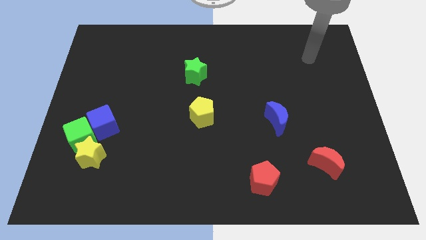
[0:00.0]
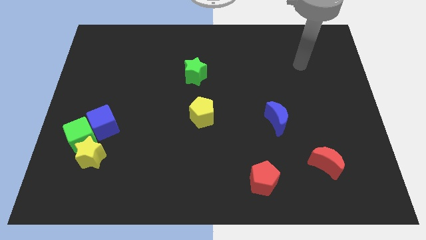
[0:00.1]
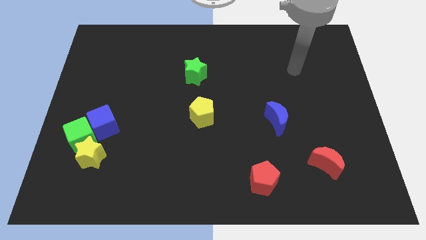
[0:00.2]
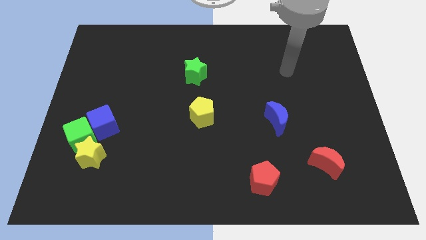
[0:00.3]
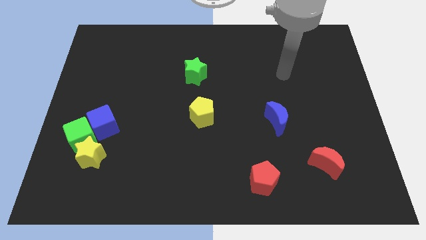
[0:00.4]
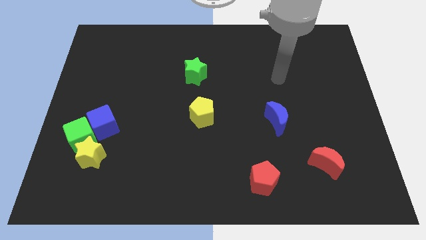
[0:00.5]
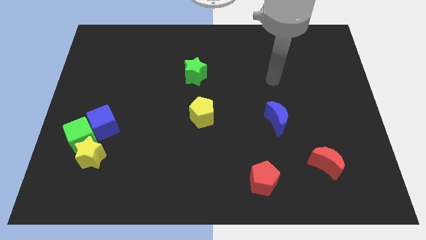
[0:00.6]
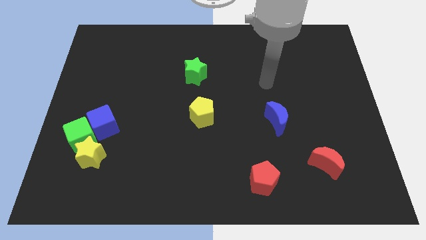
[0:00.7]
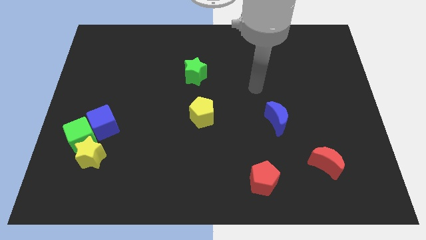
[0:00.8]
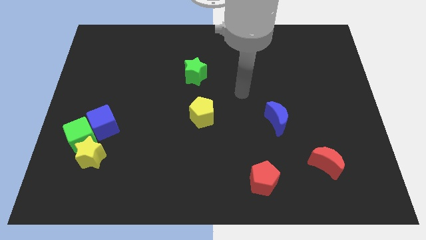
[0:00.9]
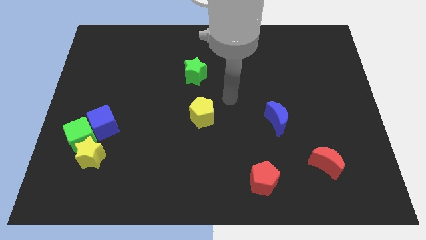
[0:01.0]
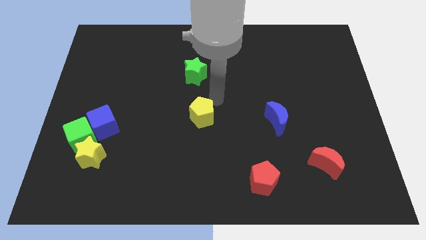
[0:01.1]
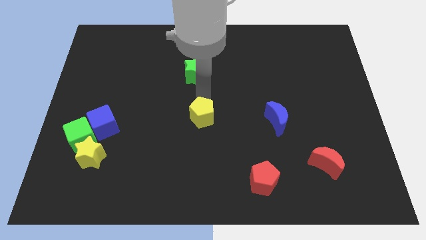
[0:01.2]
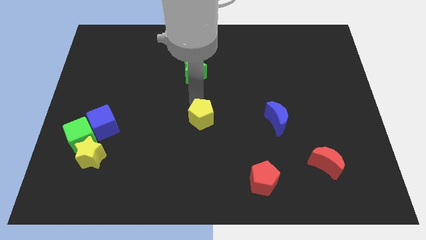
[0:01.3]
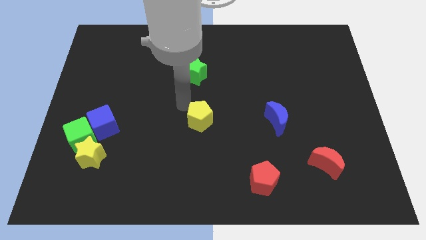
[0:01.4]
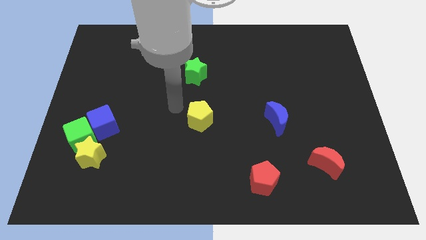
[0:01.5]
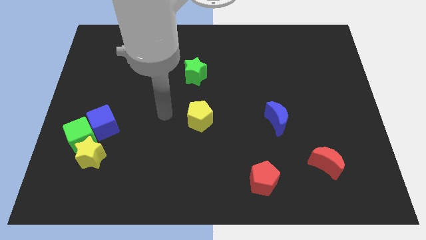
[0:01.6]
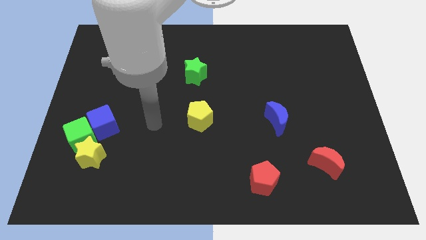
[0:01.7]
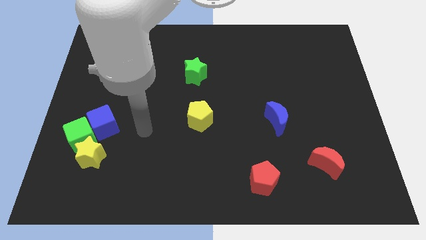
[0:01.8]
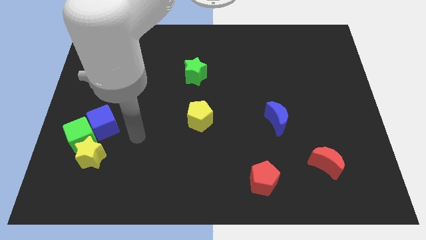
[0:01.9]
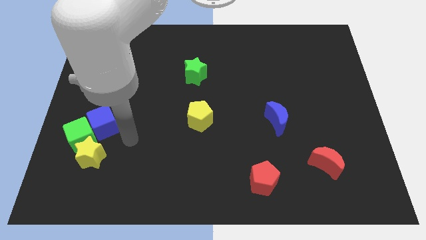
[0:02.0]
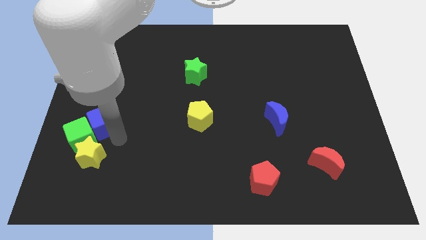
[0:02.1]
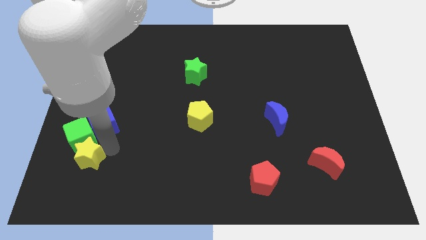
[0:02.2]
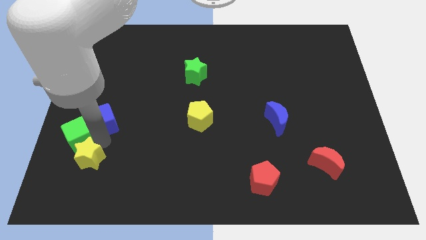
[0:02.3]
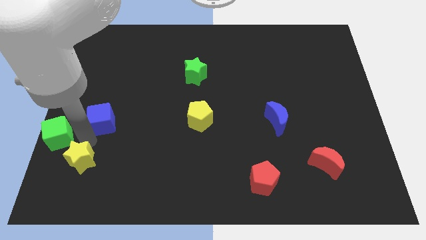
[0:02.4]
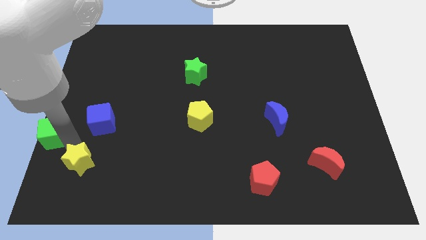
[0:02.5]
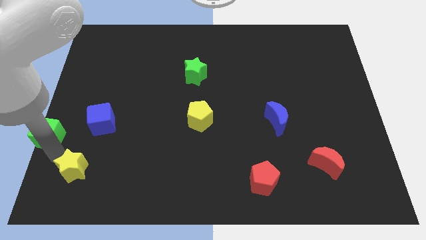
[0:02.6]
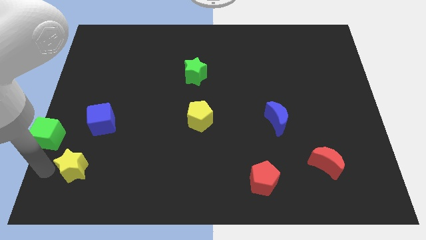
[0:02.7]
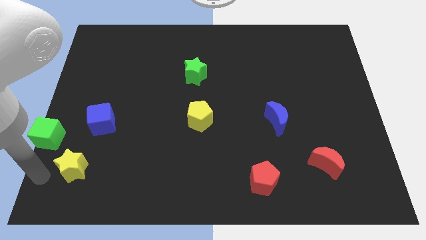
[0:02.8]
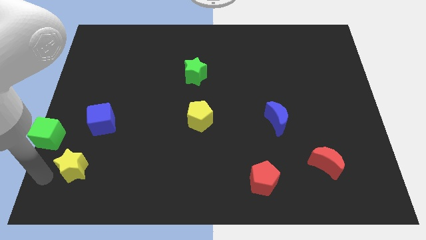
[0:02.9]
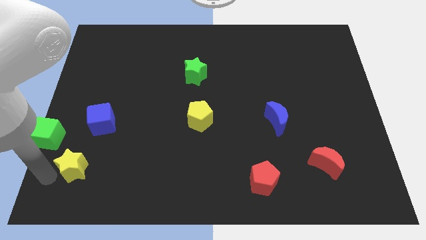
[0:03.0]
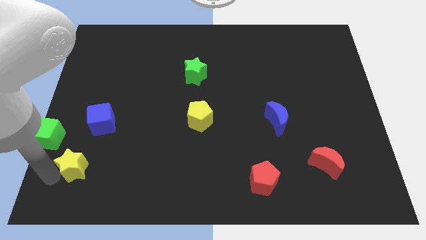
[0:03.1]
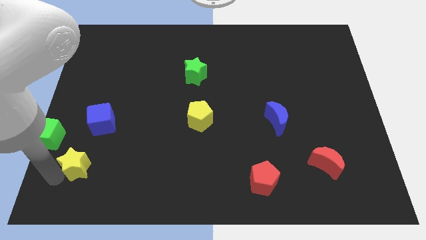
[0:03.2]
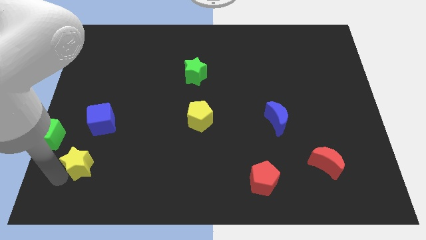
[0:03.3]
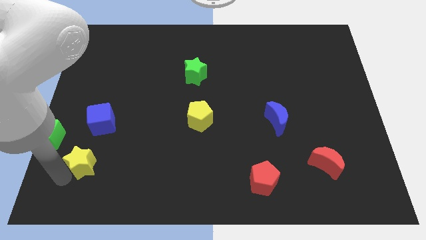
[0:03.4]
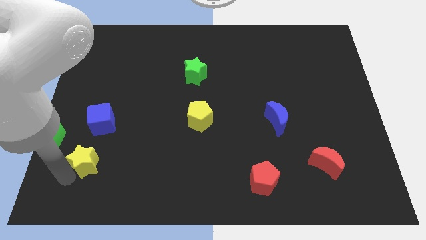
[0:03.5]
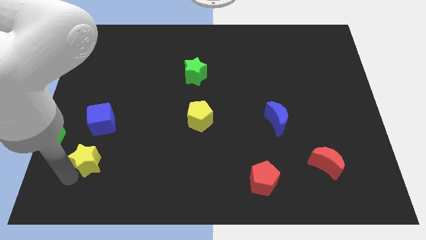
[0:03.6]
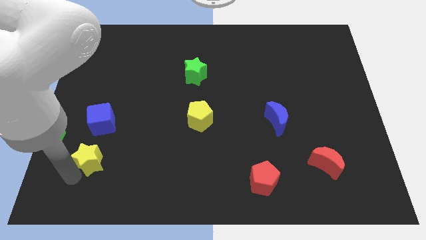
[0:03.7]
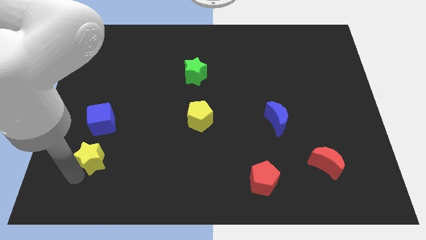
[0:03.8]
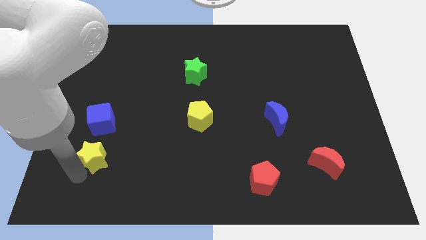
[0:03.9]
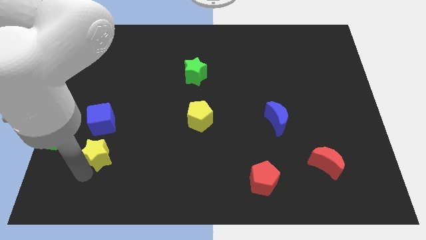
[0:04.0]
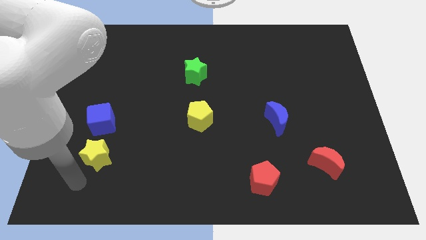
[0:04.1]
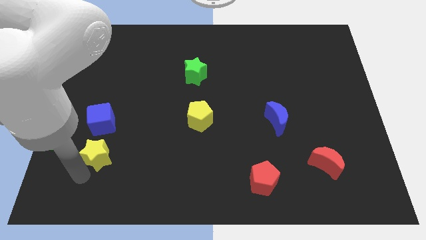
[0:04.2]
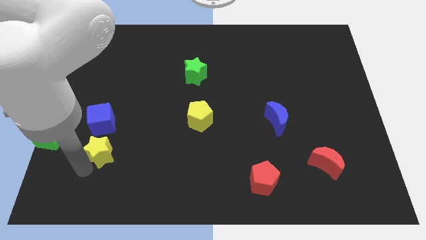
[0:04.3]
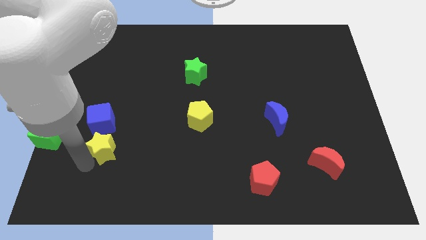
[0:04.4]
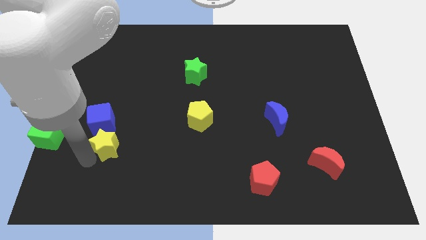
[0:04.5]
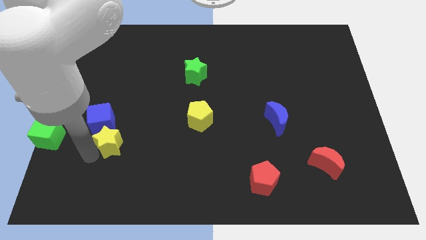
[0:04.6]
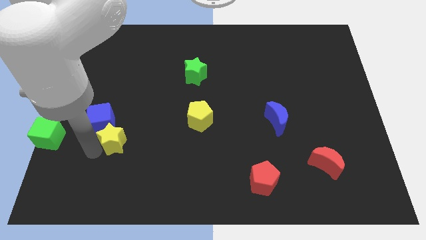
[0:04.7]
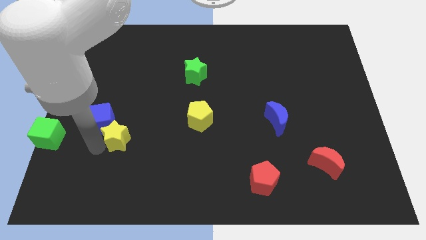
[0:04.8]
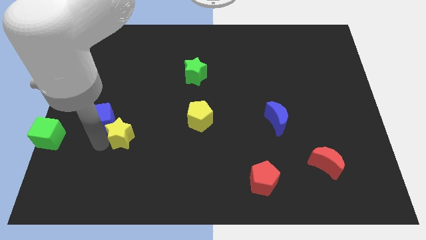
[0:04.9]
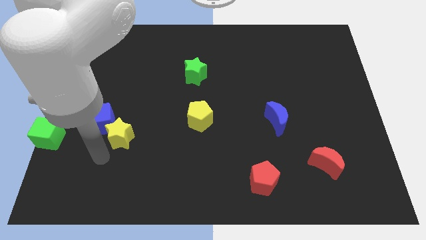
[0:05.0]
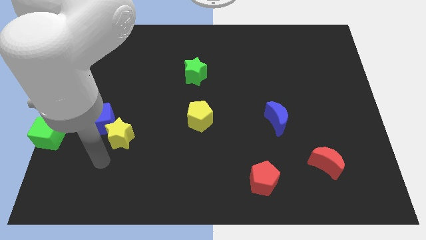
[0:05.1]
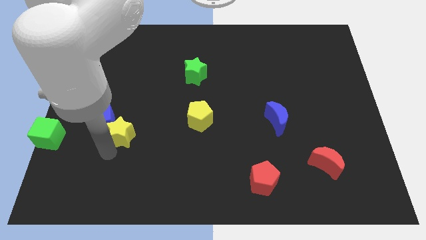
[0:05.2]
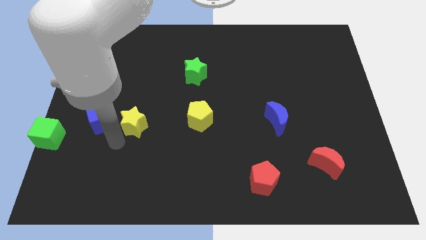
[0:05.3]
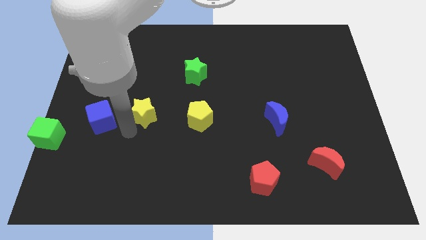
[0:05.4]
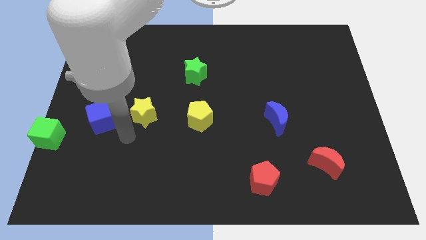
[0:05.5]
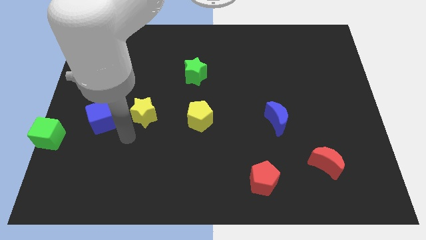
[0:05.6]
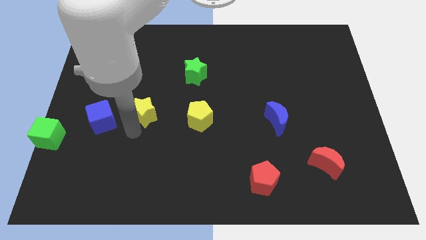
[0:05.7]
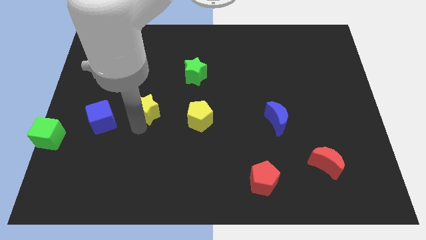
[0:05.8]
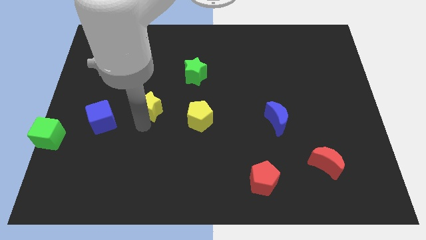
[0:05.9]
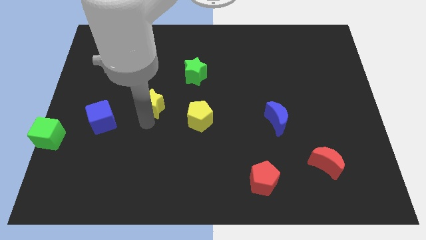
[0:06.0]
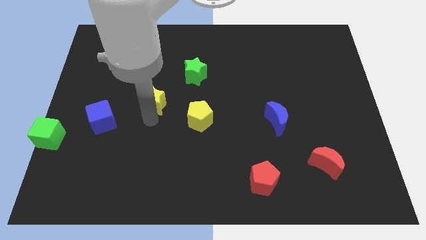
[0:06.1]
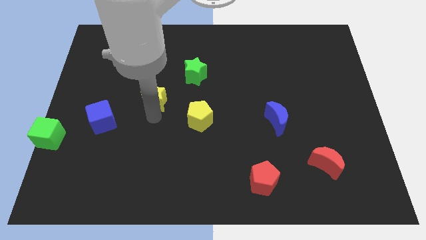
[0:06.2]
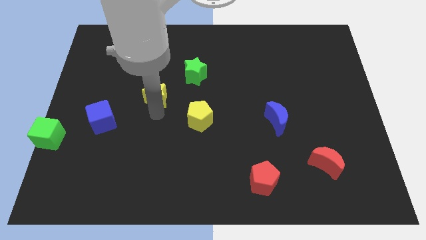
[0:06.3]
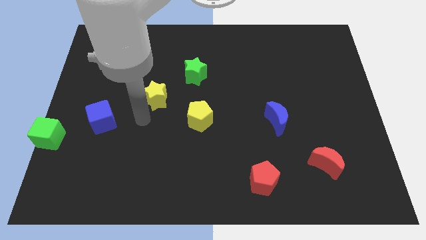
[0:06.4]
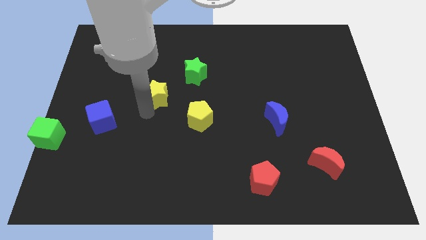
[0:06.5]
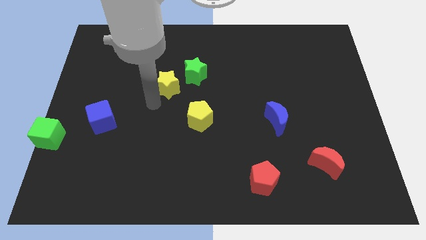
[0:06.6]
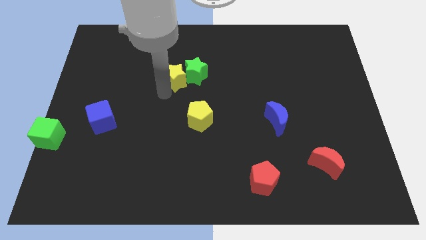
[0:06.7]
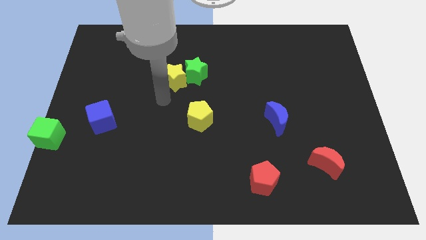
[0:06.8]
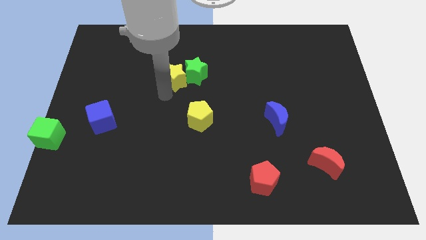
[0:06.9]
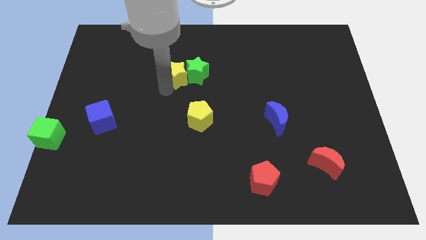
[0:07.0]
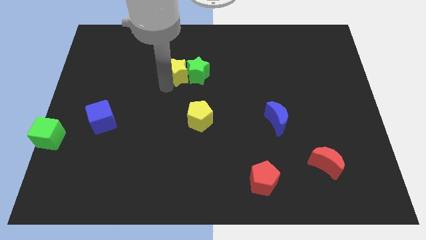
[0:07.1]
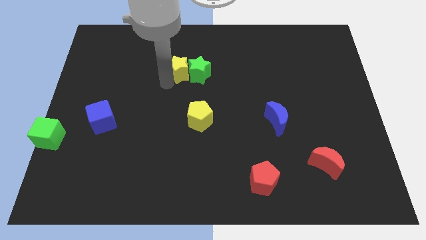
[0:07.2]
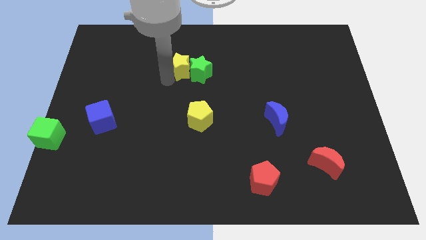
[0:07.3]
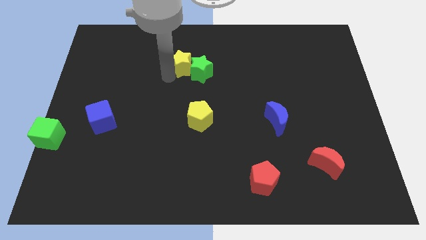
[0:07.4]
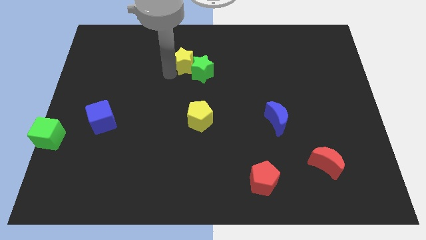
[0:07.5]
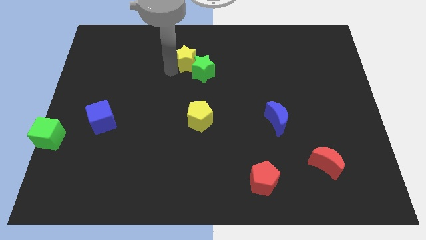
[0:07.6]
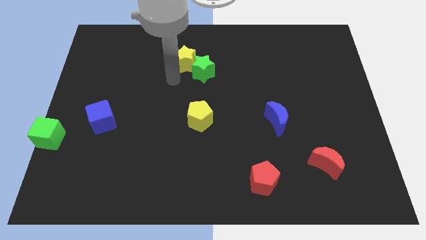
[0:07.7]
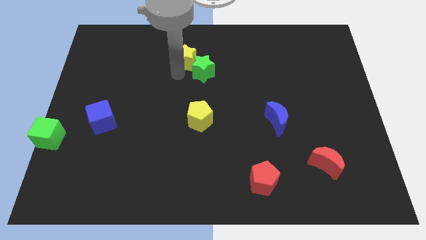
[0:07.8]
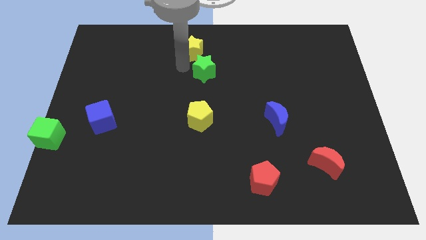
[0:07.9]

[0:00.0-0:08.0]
move the yellow star to the top side
